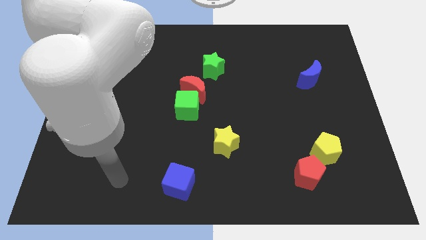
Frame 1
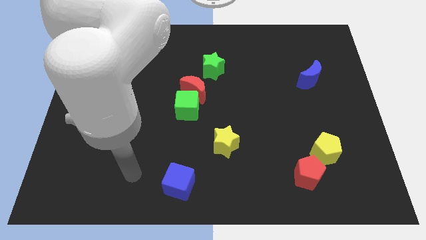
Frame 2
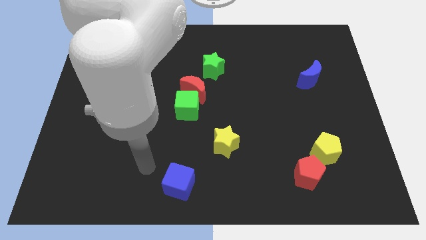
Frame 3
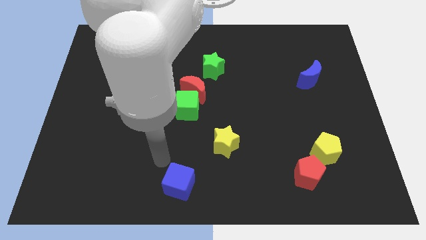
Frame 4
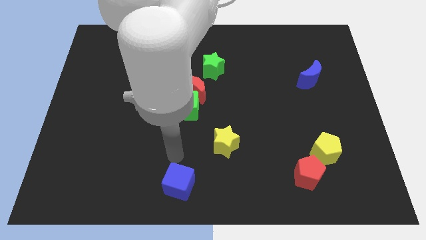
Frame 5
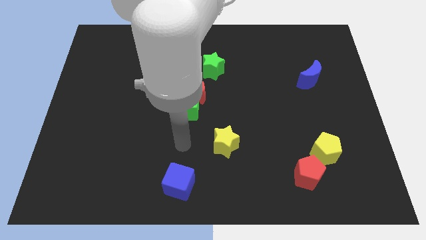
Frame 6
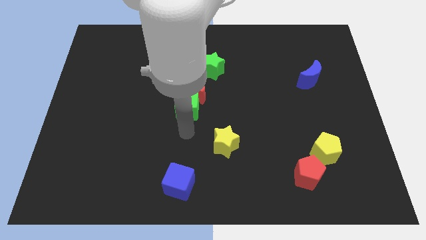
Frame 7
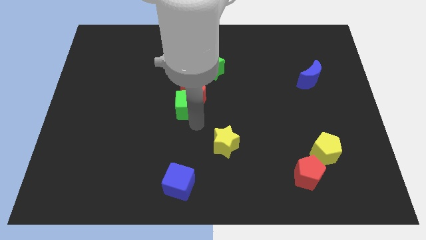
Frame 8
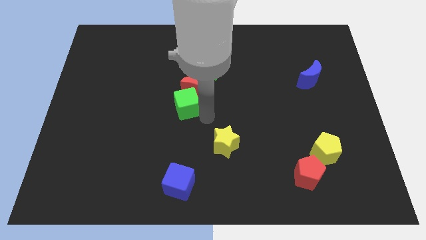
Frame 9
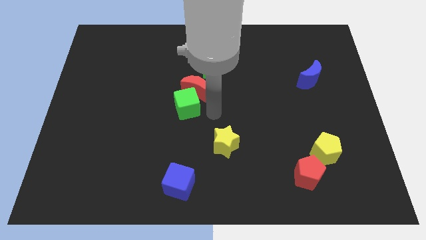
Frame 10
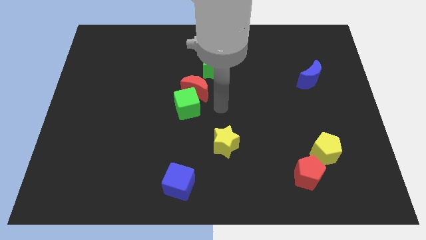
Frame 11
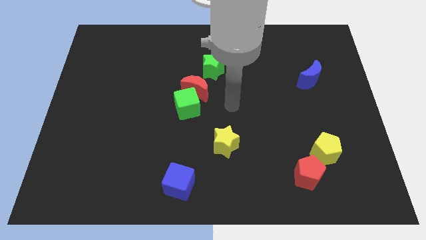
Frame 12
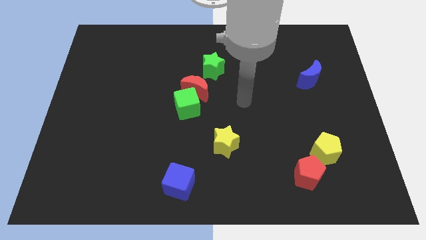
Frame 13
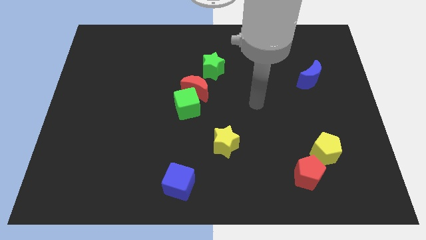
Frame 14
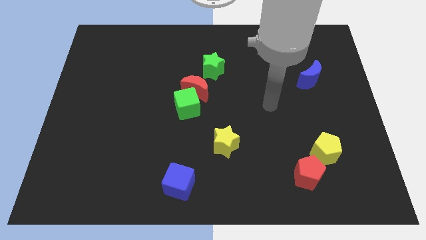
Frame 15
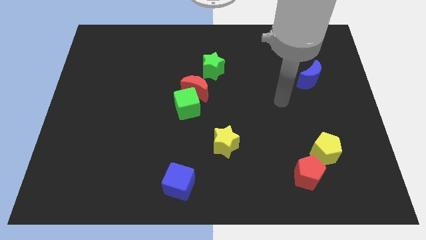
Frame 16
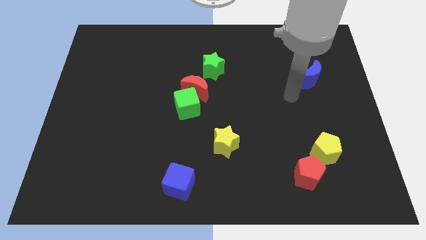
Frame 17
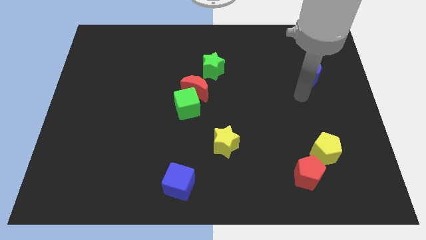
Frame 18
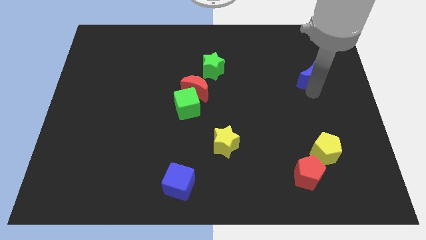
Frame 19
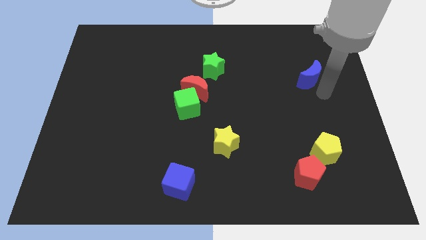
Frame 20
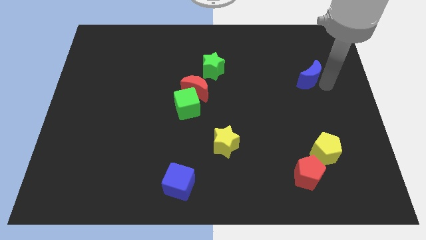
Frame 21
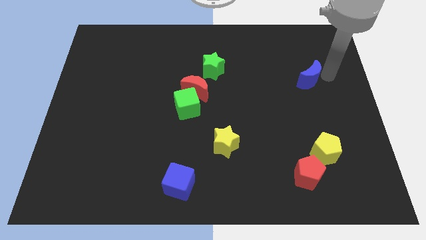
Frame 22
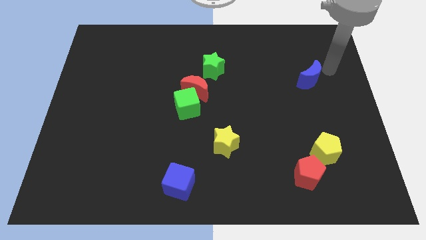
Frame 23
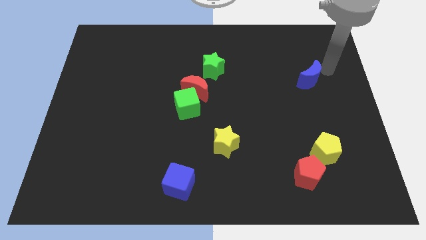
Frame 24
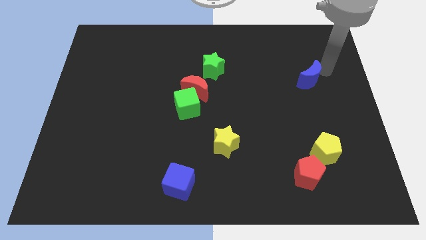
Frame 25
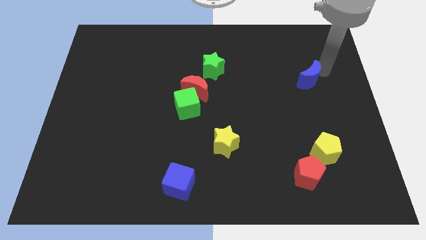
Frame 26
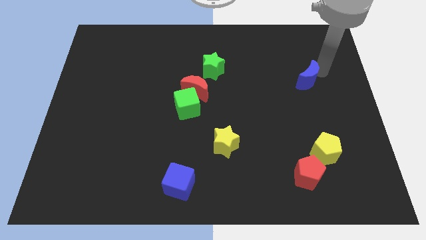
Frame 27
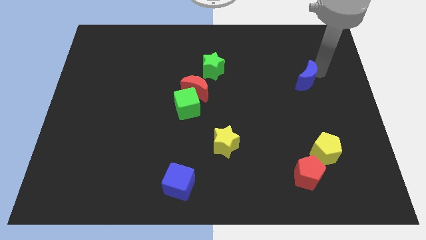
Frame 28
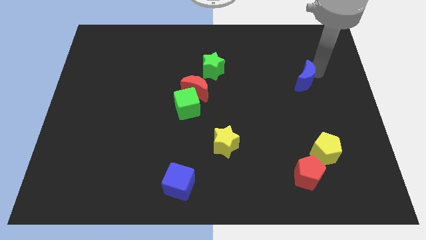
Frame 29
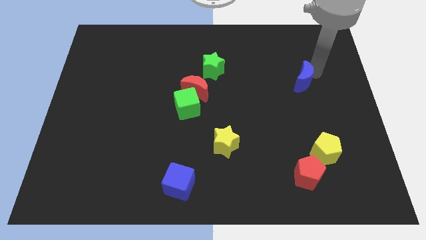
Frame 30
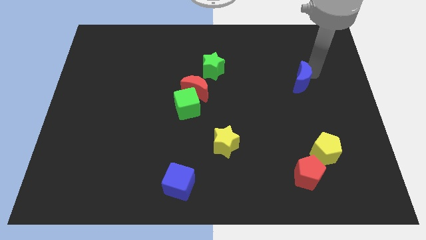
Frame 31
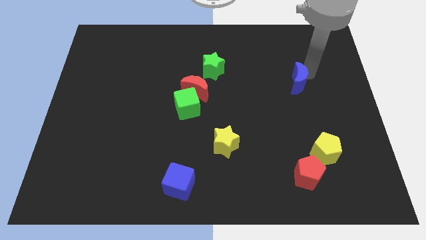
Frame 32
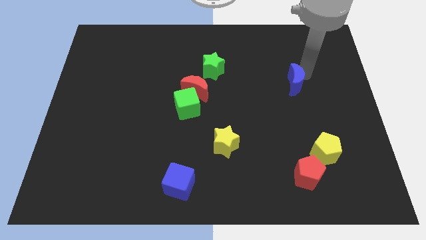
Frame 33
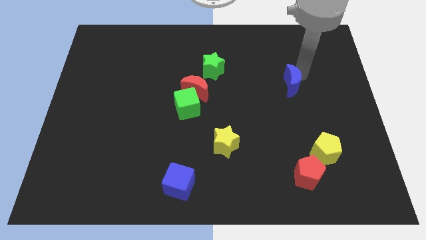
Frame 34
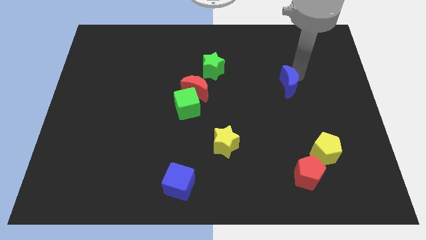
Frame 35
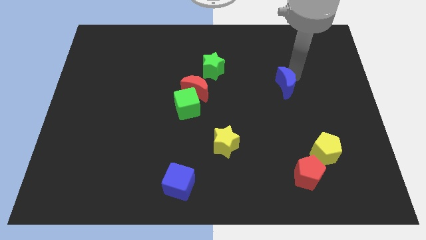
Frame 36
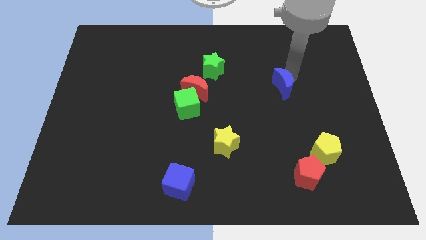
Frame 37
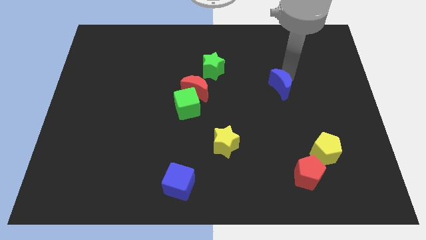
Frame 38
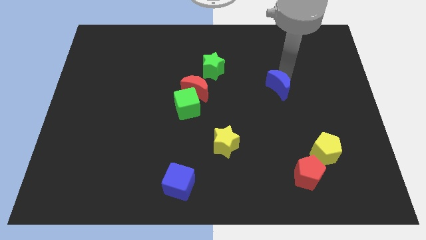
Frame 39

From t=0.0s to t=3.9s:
move the blue moon down and to the left diagonally a bit

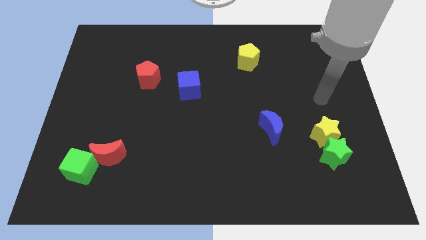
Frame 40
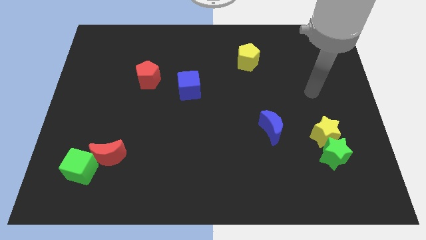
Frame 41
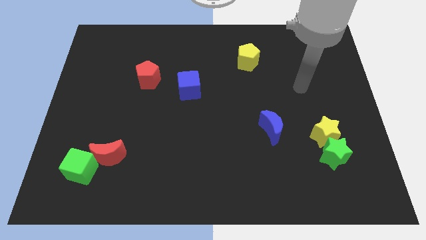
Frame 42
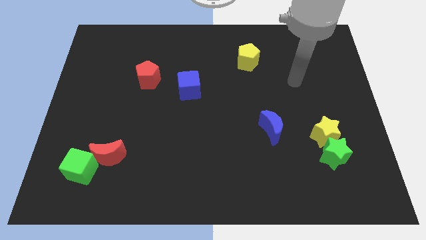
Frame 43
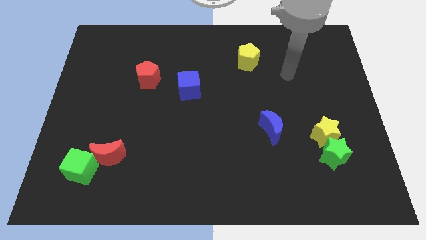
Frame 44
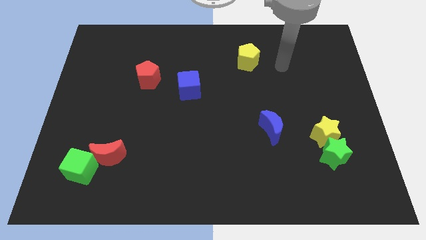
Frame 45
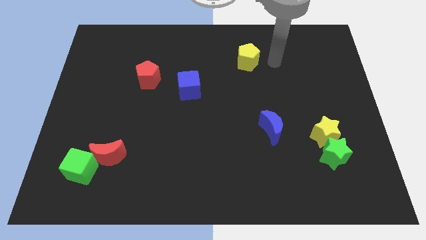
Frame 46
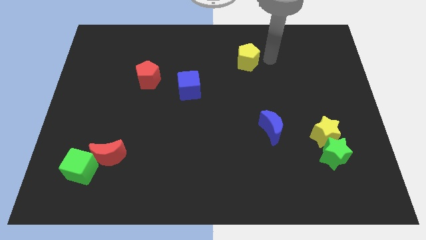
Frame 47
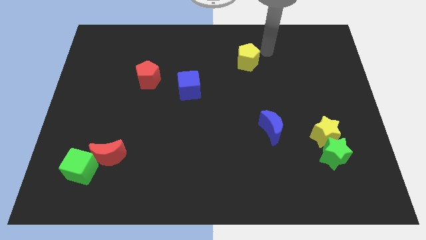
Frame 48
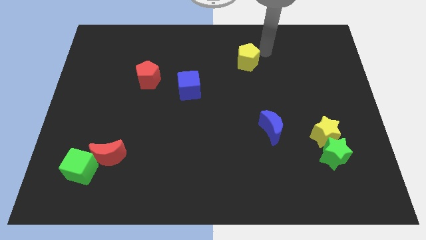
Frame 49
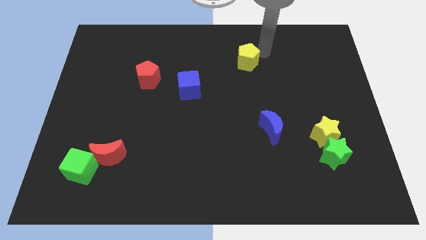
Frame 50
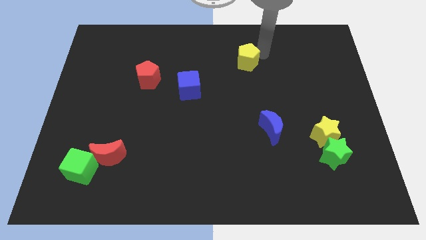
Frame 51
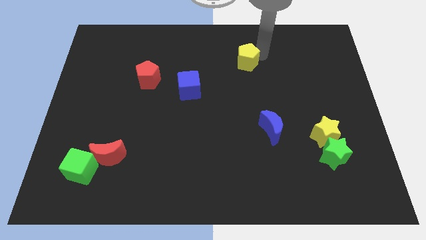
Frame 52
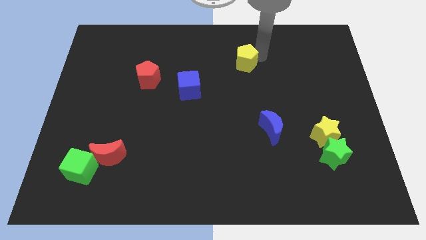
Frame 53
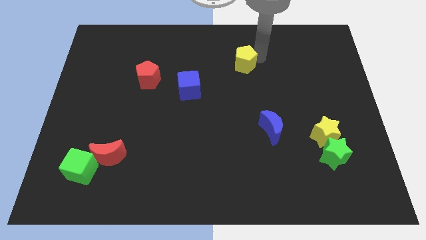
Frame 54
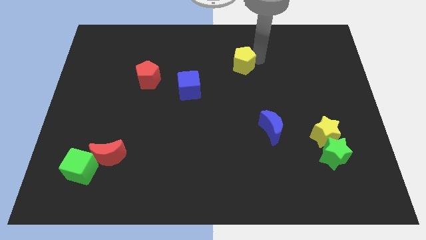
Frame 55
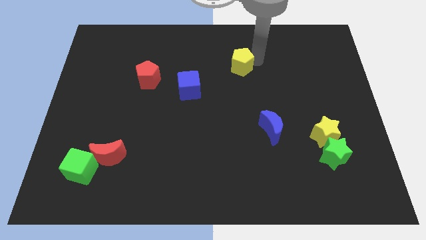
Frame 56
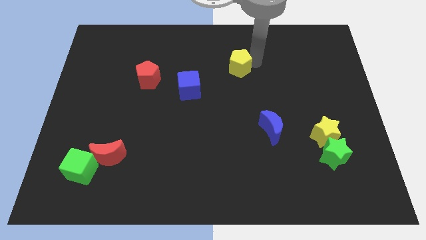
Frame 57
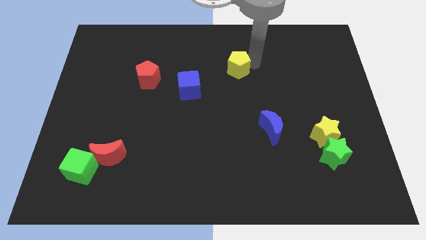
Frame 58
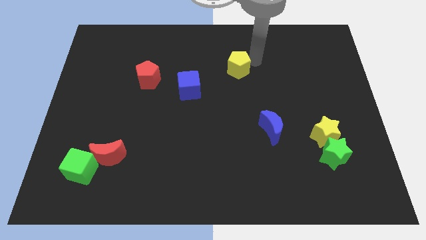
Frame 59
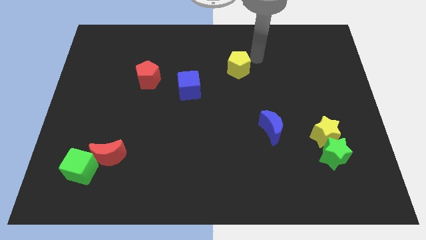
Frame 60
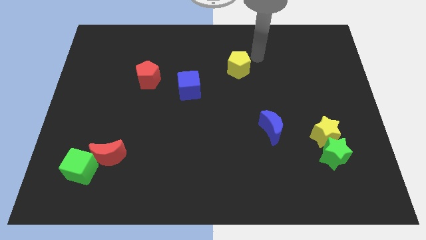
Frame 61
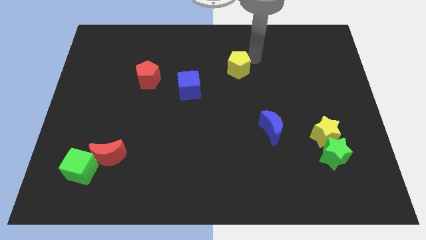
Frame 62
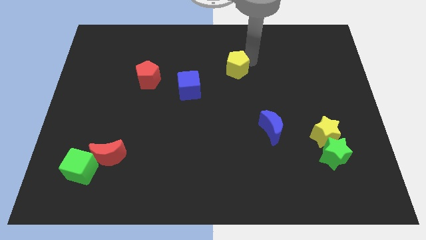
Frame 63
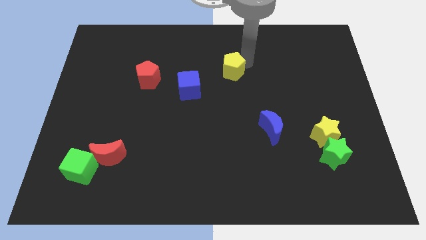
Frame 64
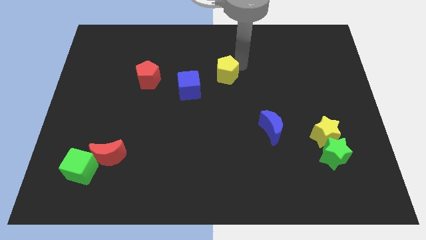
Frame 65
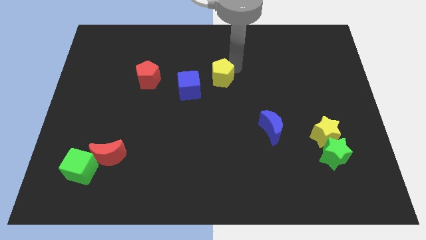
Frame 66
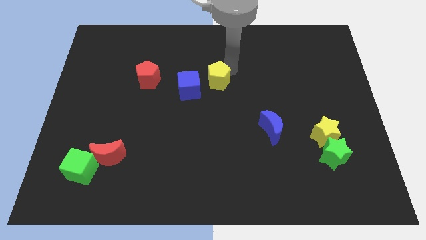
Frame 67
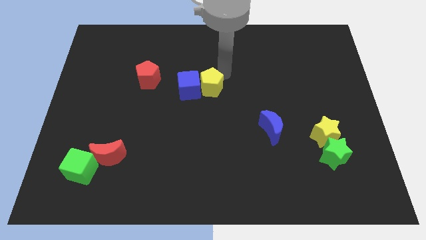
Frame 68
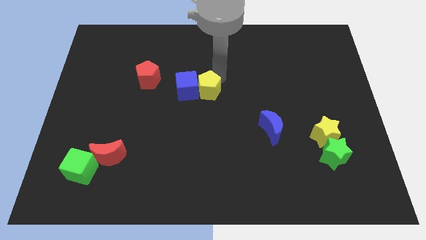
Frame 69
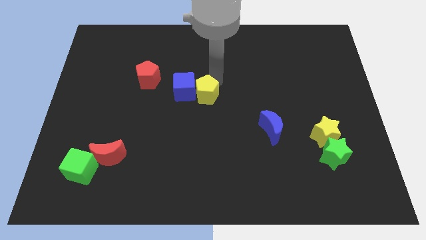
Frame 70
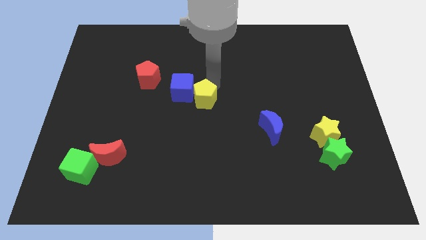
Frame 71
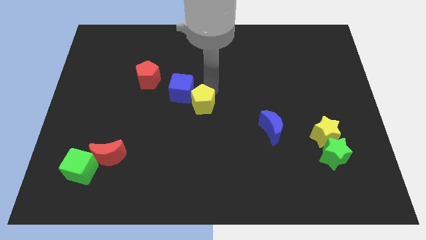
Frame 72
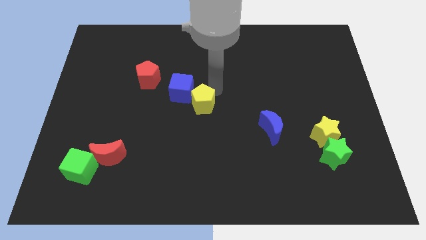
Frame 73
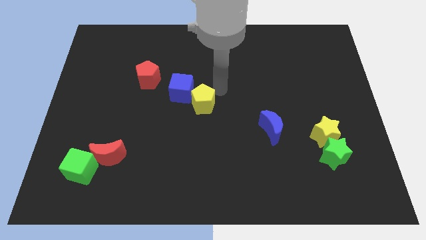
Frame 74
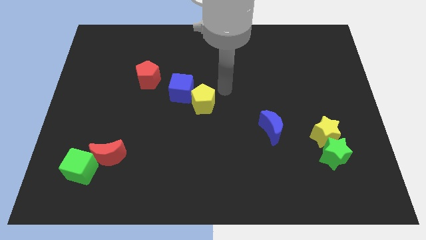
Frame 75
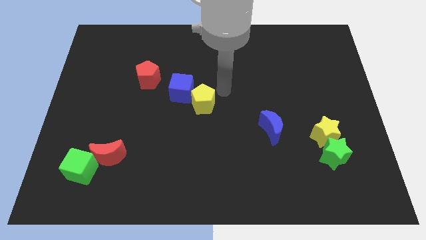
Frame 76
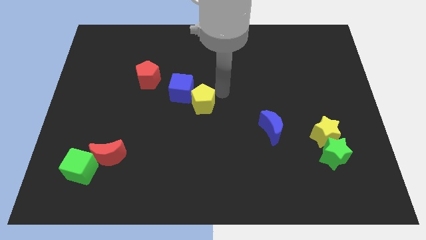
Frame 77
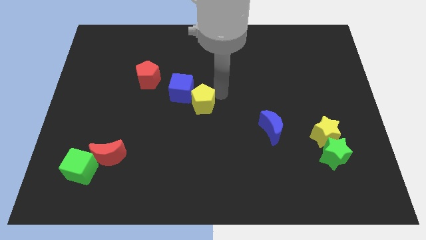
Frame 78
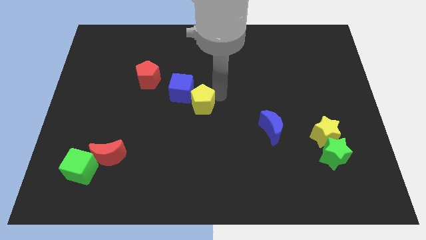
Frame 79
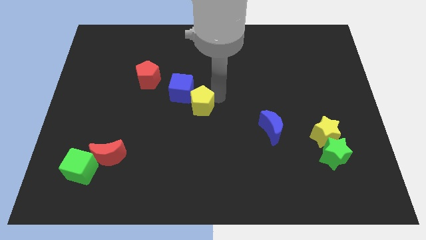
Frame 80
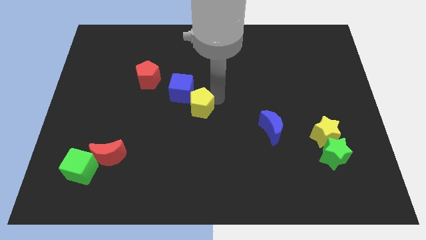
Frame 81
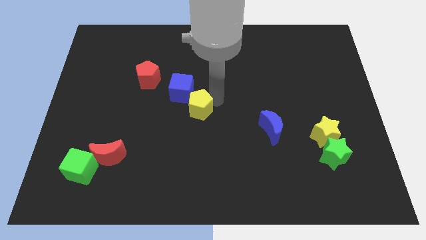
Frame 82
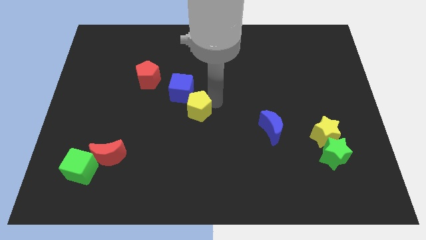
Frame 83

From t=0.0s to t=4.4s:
move the yellow pentagon diagonally down and to the left
